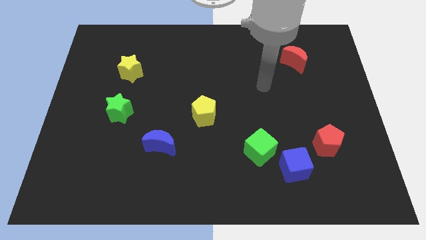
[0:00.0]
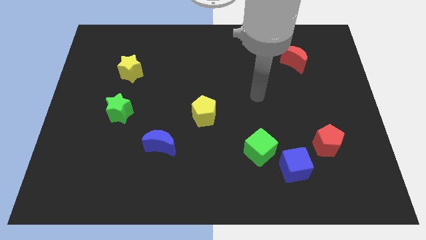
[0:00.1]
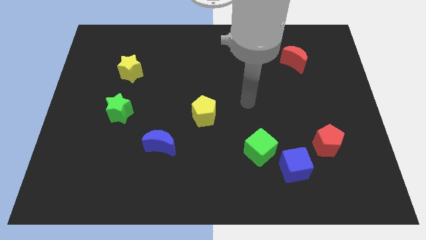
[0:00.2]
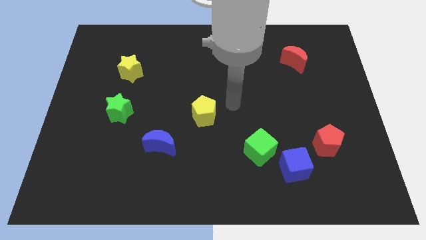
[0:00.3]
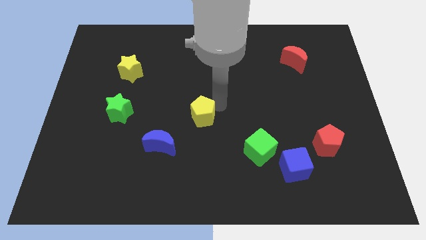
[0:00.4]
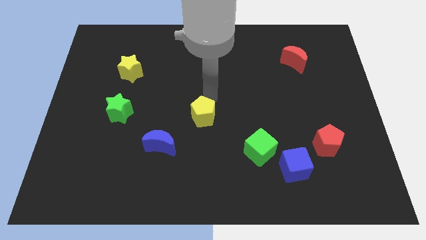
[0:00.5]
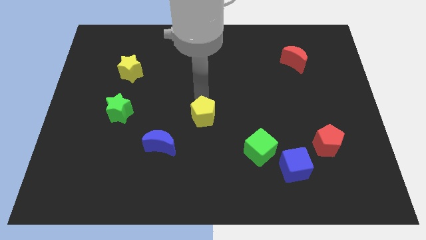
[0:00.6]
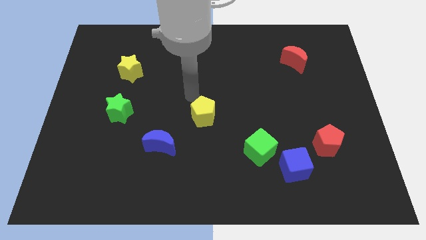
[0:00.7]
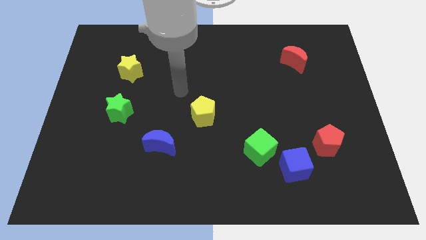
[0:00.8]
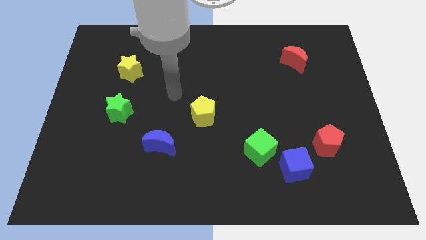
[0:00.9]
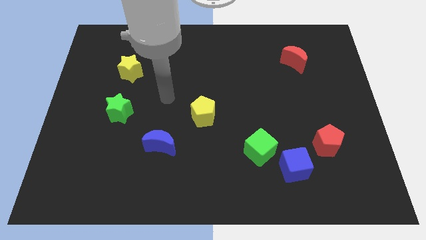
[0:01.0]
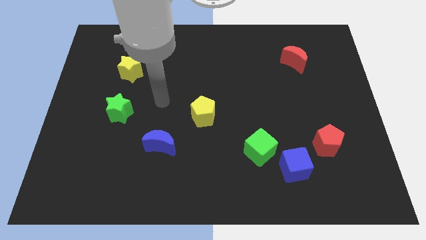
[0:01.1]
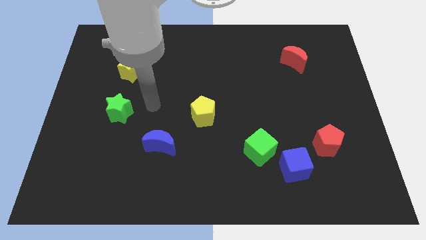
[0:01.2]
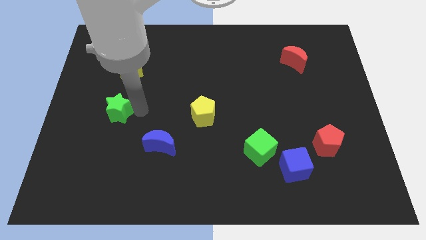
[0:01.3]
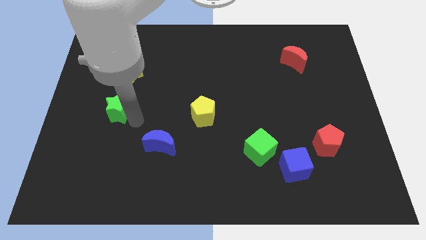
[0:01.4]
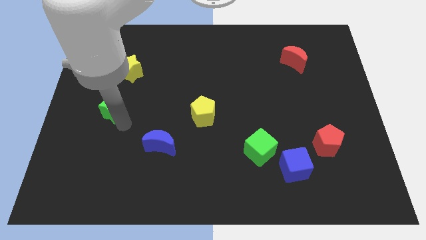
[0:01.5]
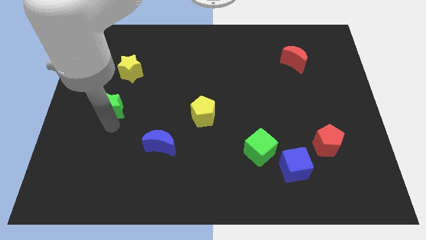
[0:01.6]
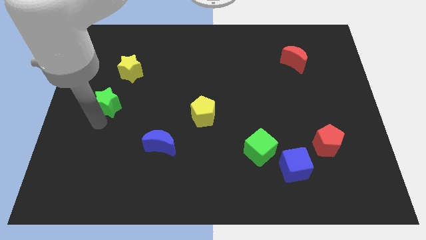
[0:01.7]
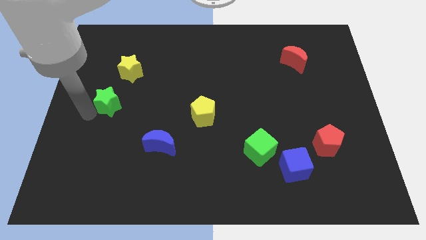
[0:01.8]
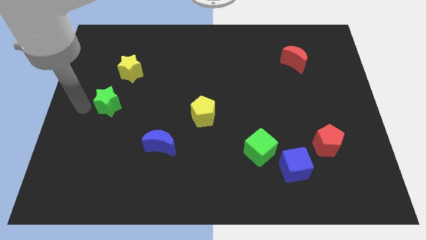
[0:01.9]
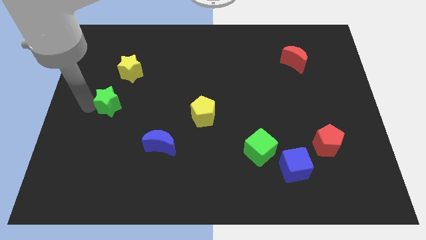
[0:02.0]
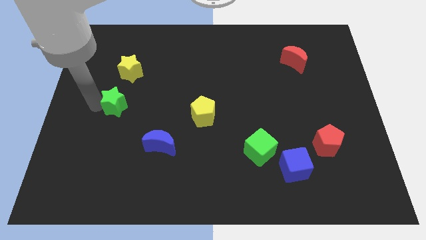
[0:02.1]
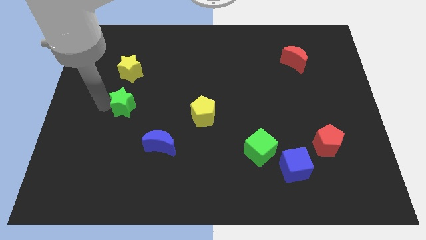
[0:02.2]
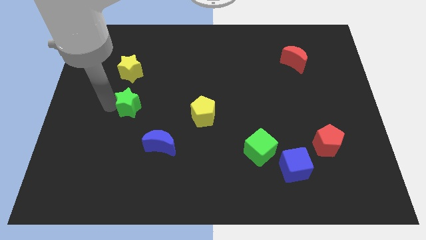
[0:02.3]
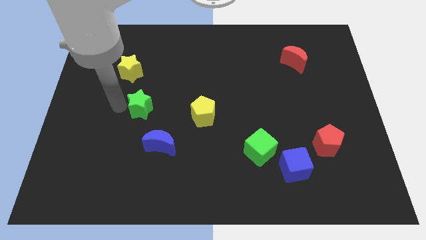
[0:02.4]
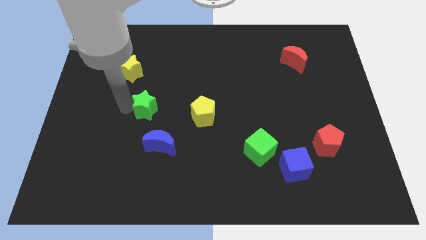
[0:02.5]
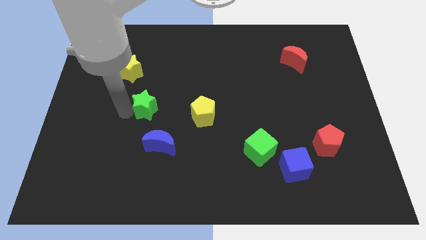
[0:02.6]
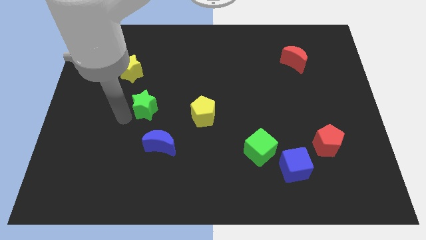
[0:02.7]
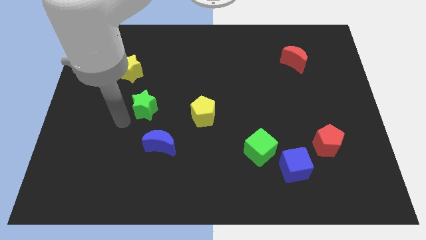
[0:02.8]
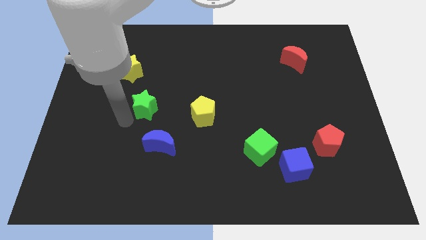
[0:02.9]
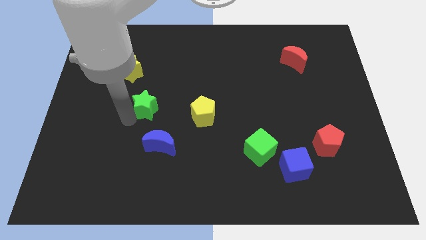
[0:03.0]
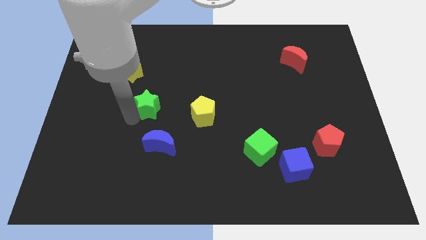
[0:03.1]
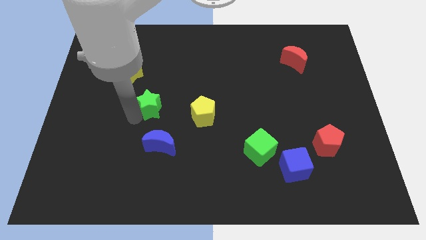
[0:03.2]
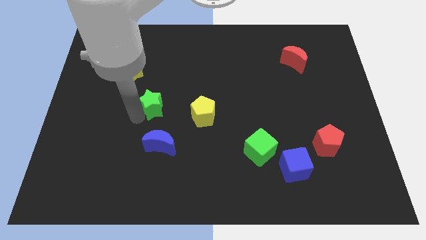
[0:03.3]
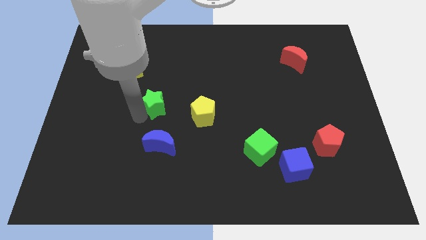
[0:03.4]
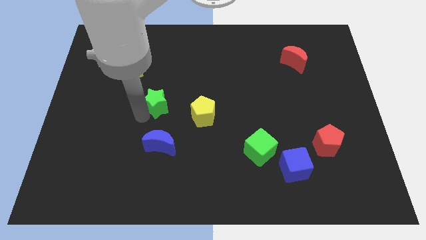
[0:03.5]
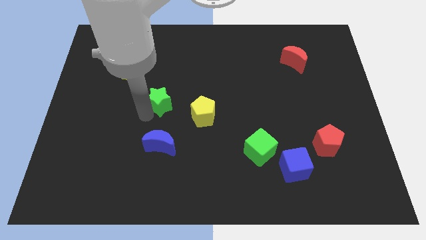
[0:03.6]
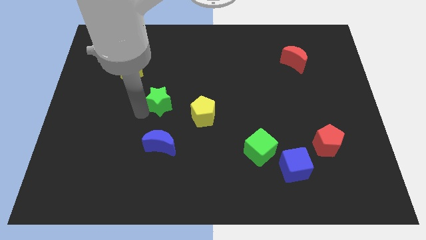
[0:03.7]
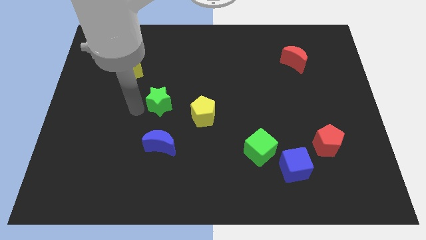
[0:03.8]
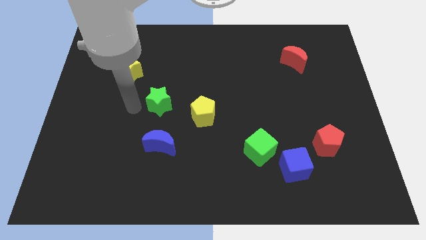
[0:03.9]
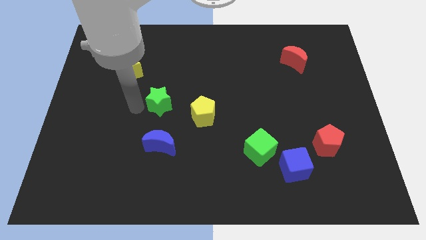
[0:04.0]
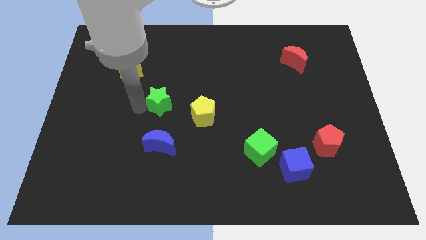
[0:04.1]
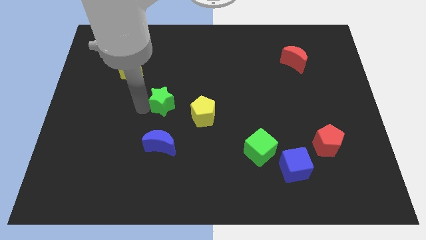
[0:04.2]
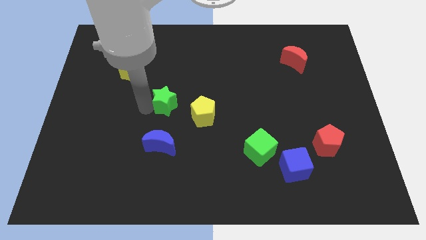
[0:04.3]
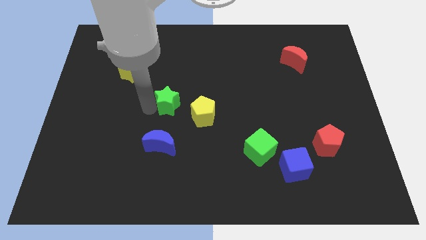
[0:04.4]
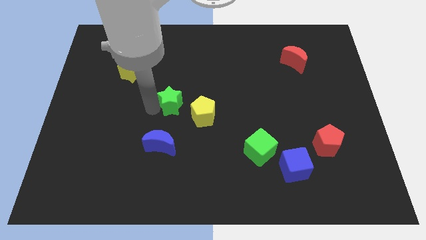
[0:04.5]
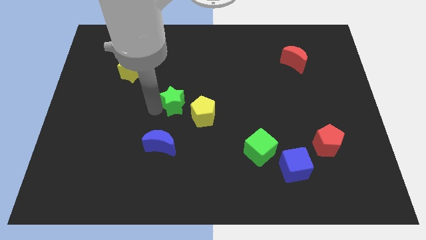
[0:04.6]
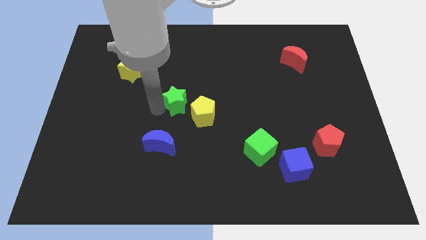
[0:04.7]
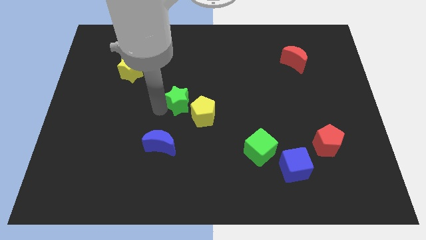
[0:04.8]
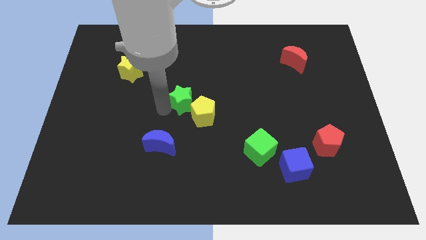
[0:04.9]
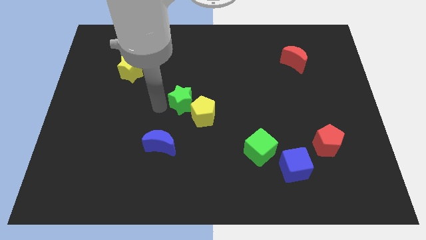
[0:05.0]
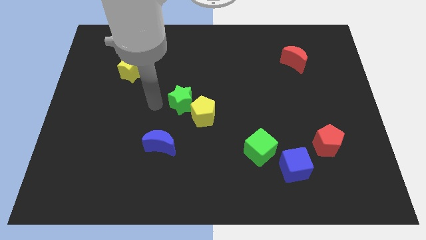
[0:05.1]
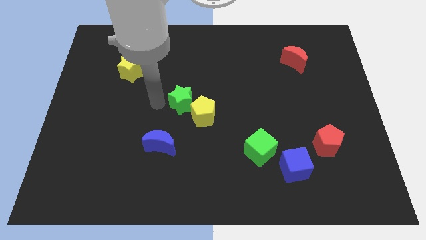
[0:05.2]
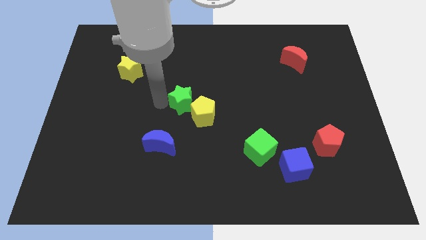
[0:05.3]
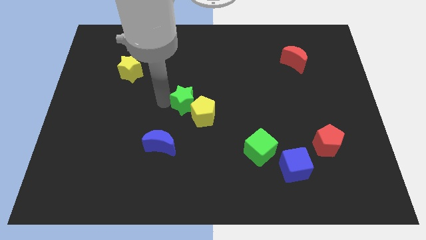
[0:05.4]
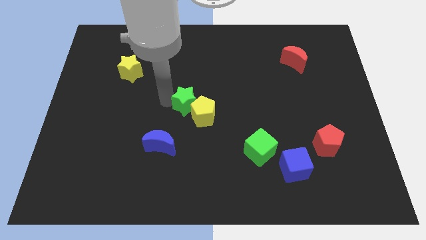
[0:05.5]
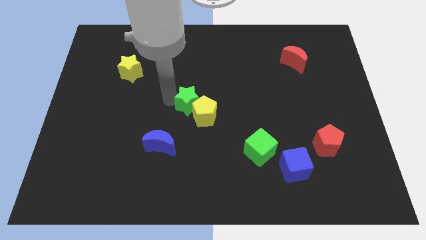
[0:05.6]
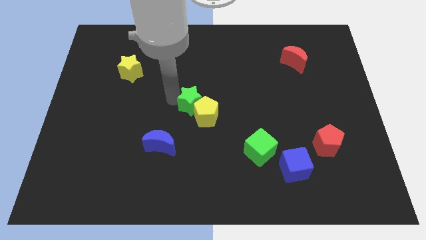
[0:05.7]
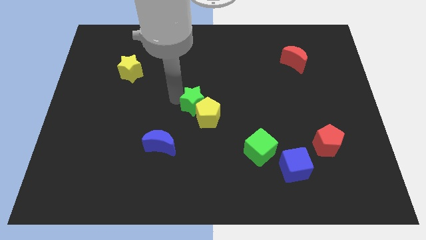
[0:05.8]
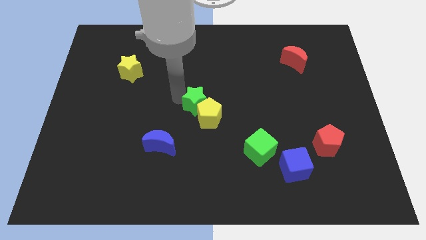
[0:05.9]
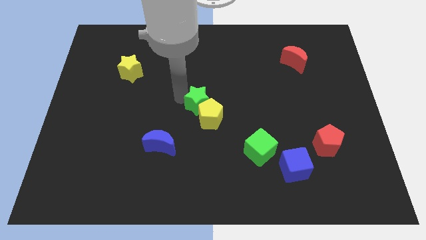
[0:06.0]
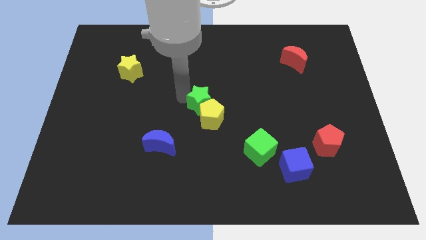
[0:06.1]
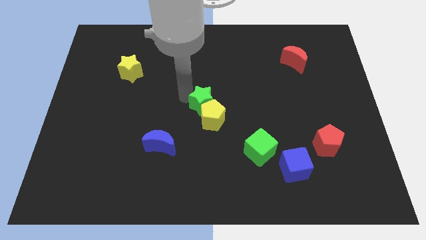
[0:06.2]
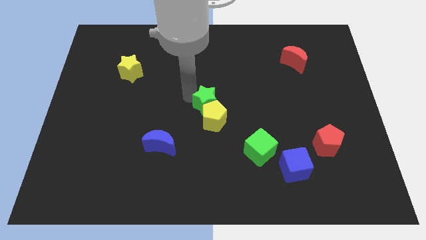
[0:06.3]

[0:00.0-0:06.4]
push the green star right

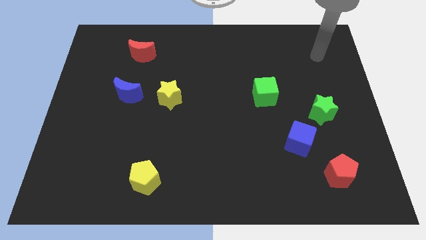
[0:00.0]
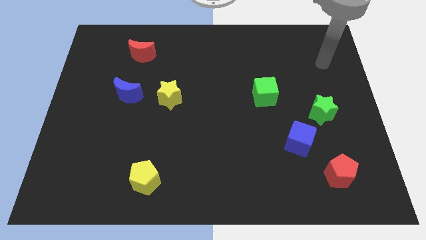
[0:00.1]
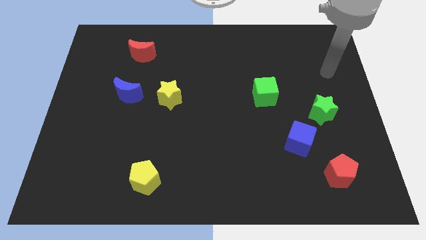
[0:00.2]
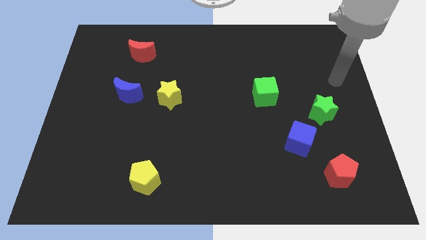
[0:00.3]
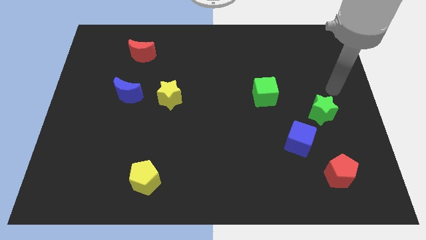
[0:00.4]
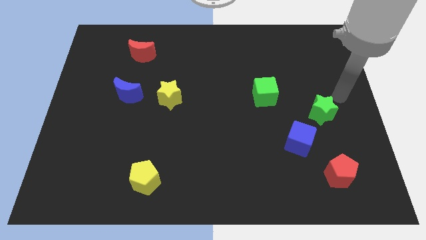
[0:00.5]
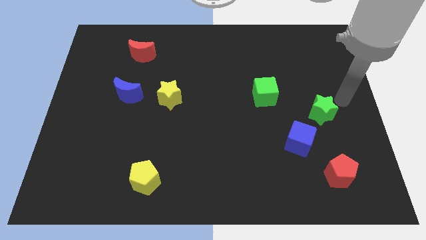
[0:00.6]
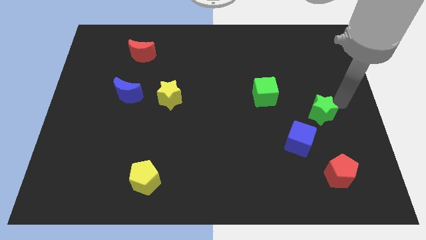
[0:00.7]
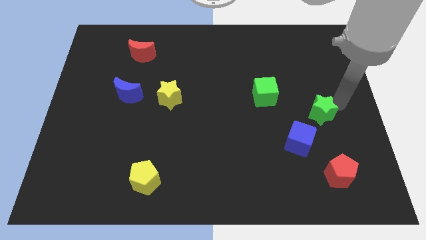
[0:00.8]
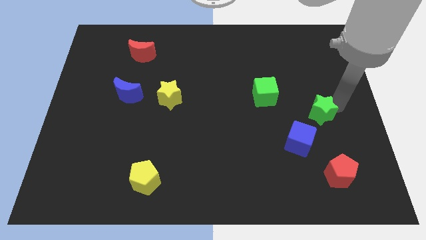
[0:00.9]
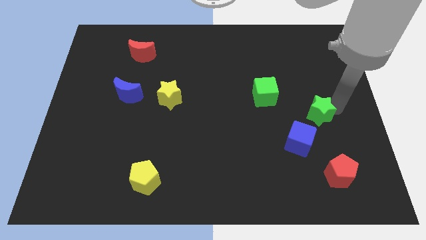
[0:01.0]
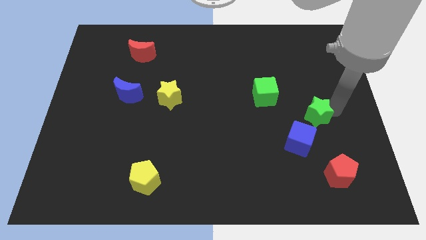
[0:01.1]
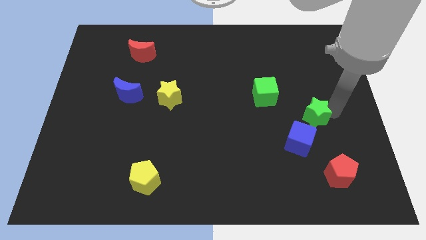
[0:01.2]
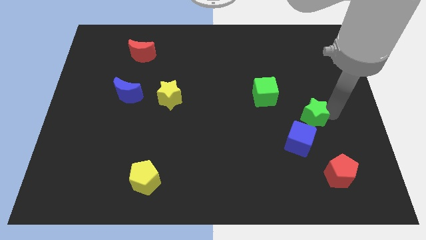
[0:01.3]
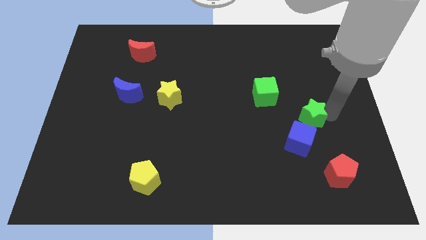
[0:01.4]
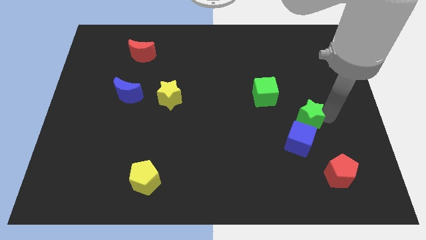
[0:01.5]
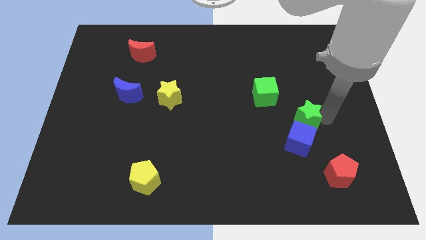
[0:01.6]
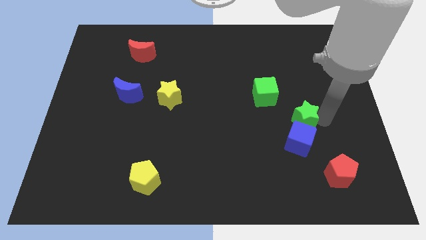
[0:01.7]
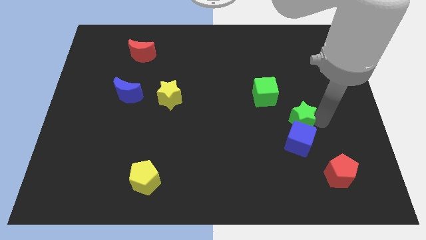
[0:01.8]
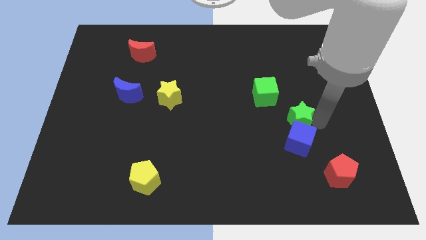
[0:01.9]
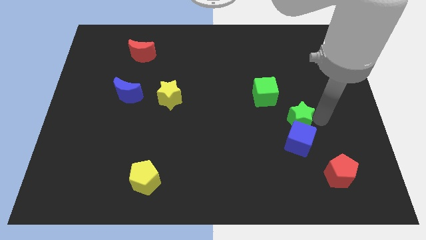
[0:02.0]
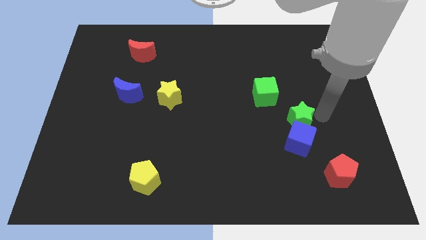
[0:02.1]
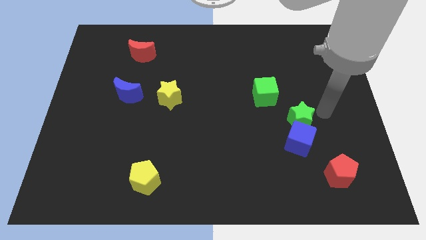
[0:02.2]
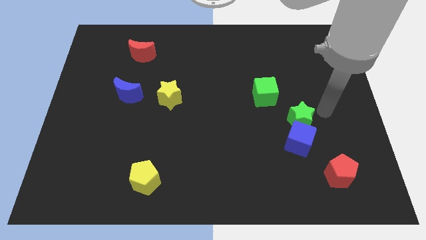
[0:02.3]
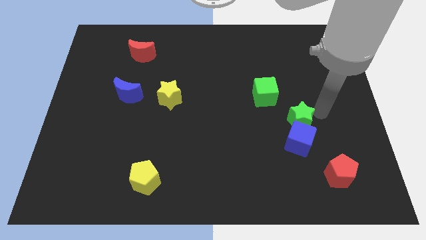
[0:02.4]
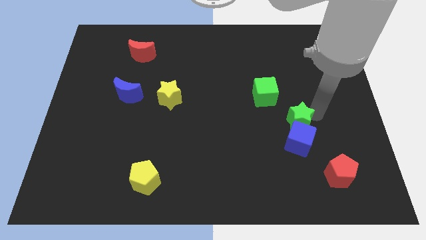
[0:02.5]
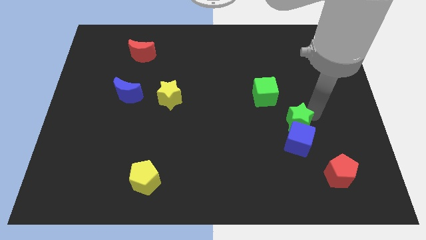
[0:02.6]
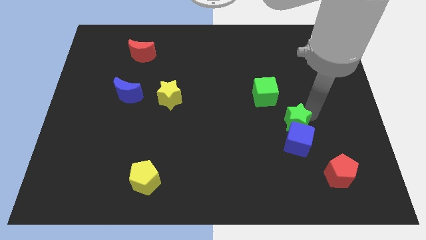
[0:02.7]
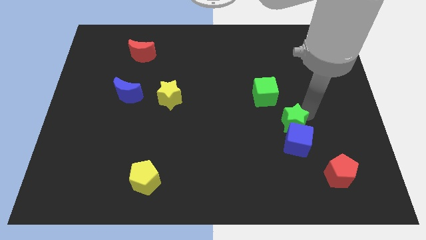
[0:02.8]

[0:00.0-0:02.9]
move the green star downwards and left slightly
